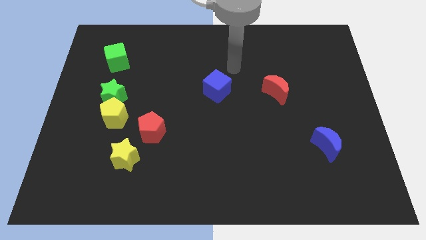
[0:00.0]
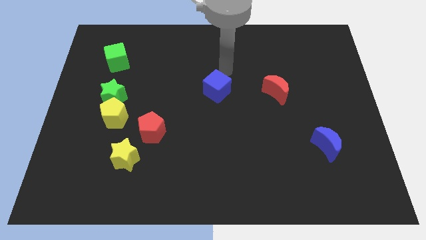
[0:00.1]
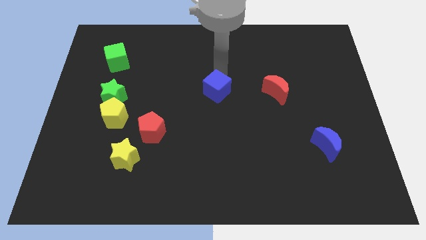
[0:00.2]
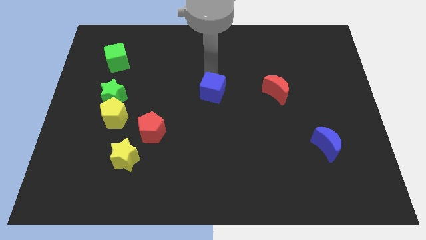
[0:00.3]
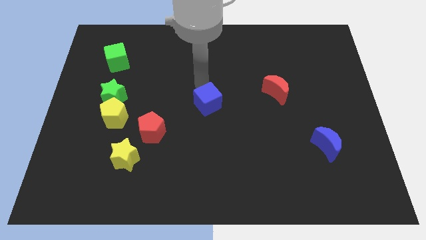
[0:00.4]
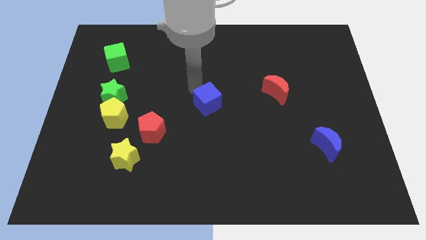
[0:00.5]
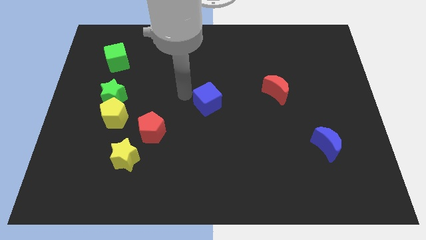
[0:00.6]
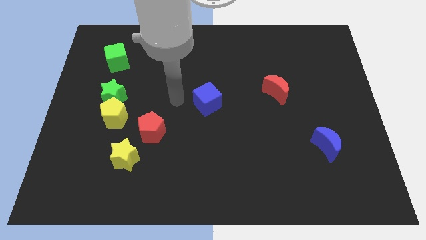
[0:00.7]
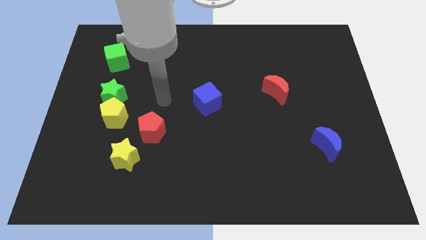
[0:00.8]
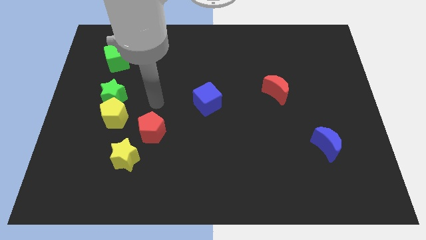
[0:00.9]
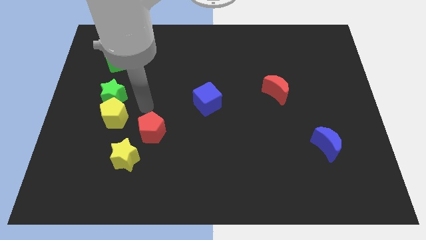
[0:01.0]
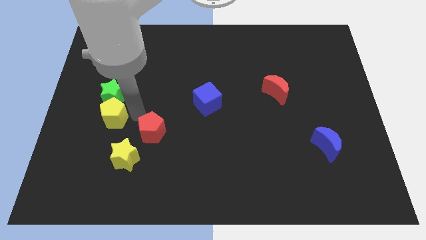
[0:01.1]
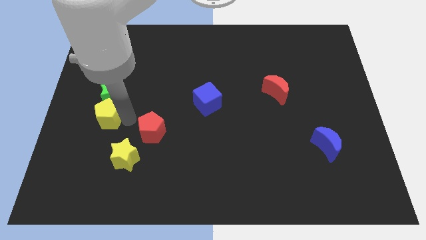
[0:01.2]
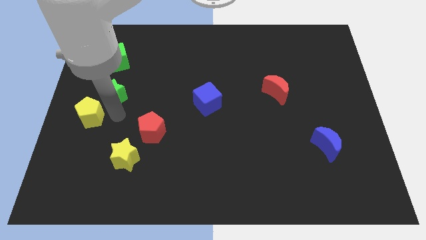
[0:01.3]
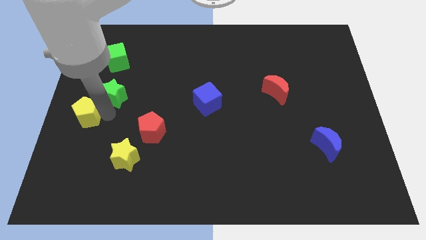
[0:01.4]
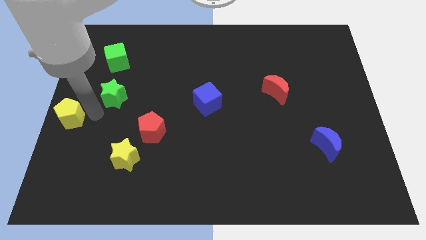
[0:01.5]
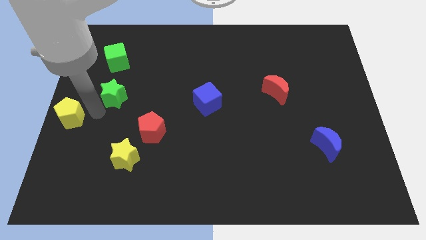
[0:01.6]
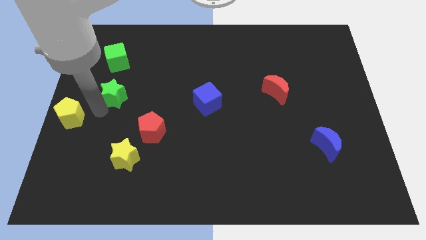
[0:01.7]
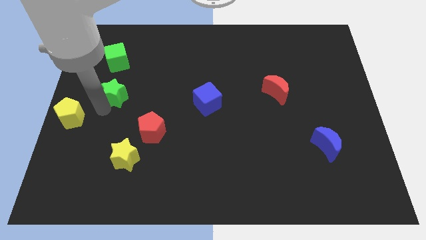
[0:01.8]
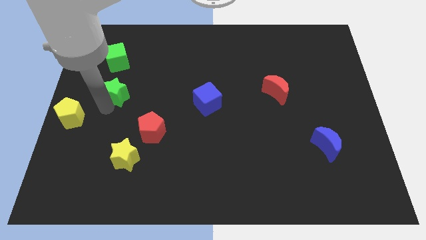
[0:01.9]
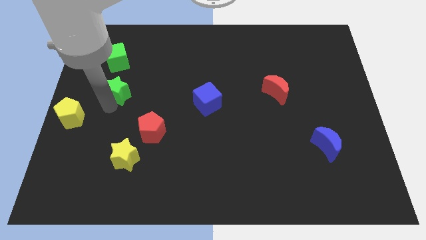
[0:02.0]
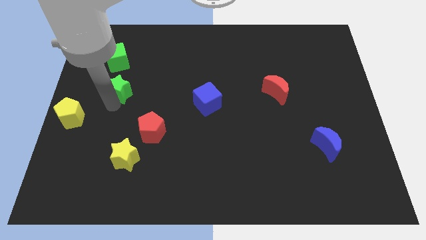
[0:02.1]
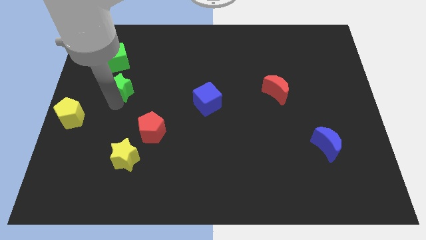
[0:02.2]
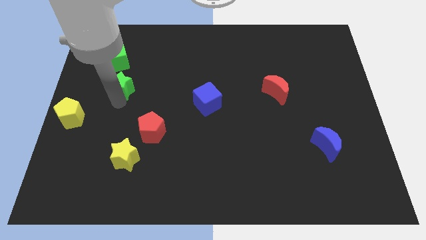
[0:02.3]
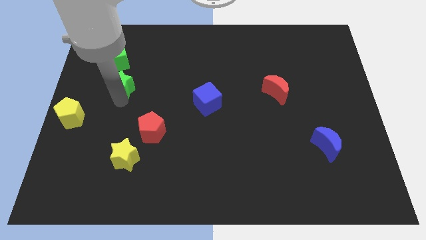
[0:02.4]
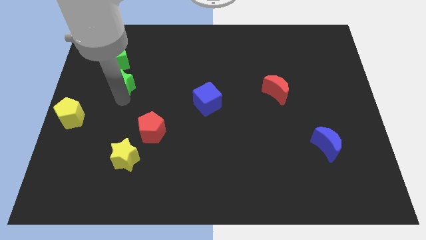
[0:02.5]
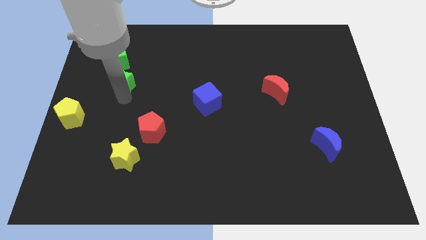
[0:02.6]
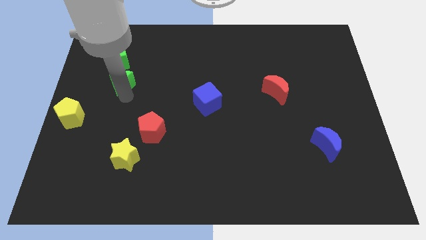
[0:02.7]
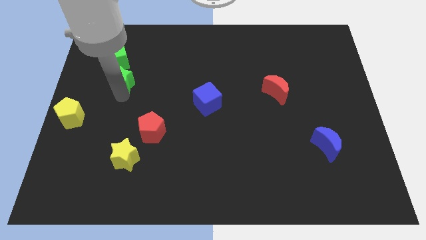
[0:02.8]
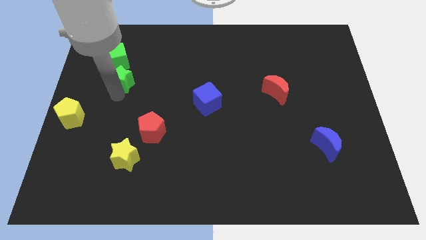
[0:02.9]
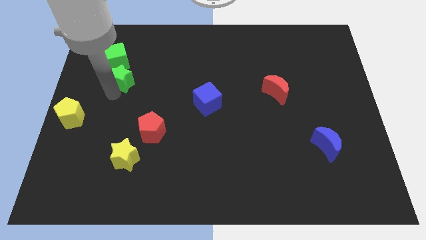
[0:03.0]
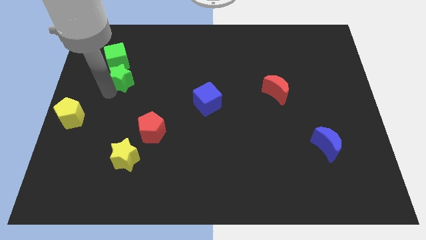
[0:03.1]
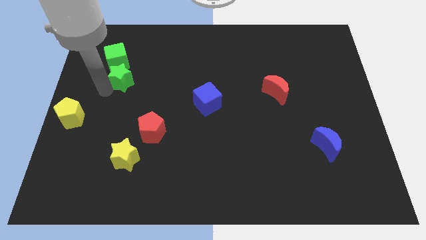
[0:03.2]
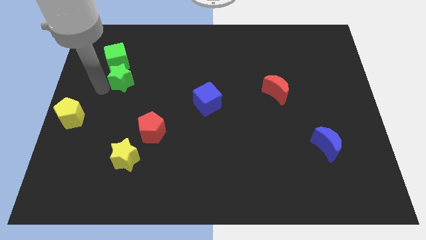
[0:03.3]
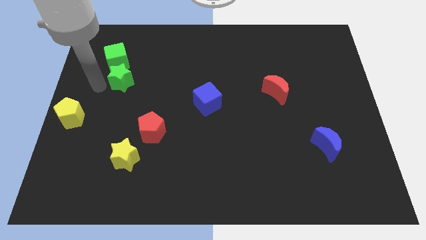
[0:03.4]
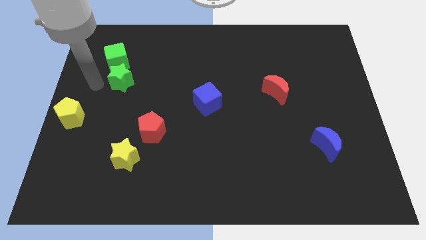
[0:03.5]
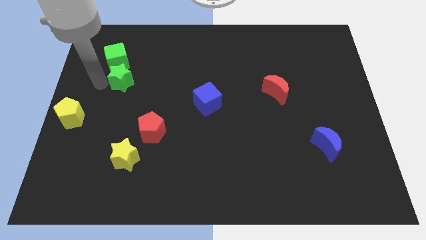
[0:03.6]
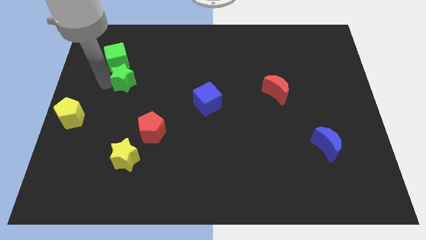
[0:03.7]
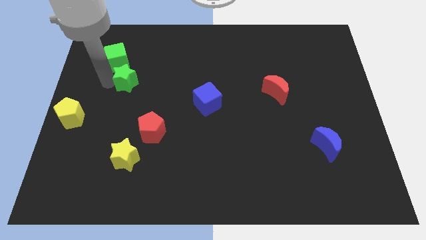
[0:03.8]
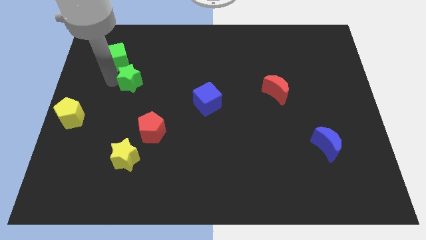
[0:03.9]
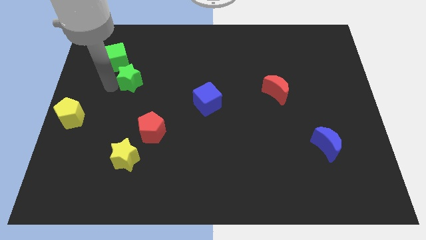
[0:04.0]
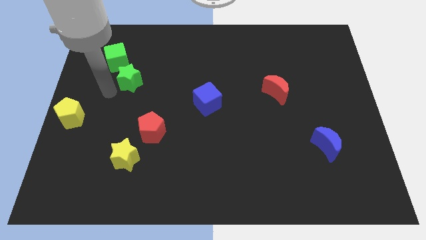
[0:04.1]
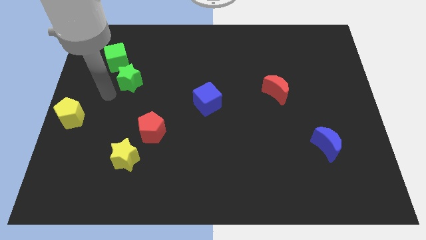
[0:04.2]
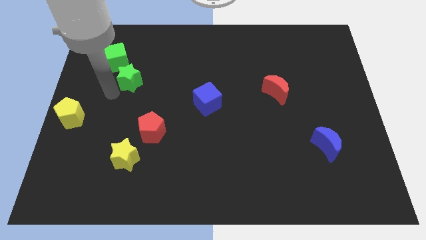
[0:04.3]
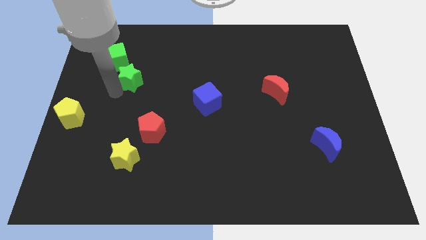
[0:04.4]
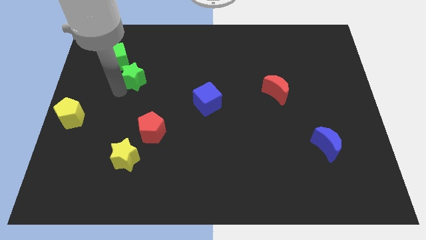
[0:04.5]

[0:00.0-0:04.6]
slightly move the green star diagonally up and to the right

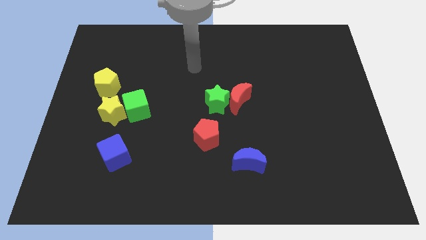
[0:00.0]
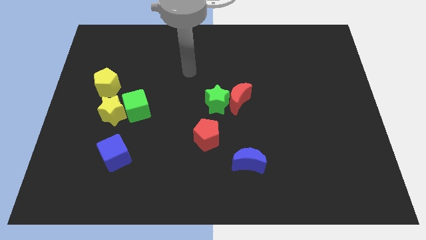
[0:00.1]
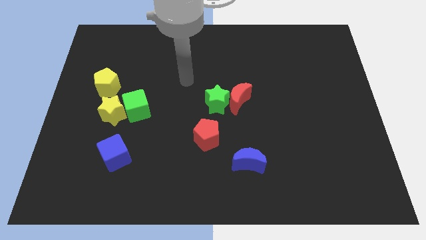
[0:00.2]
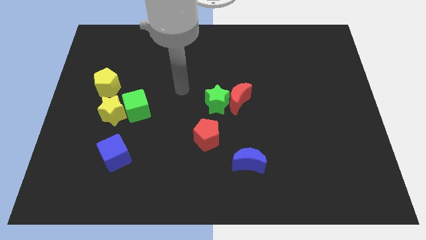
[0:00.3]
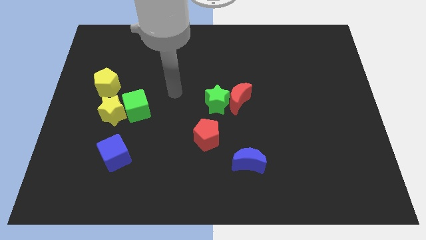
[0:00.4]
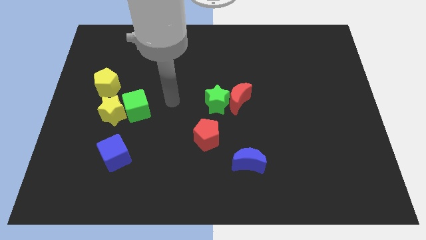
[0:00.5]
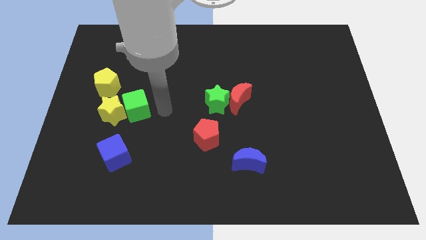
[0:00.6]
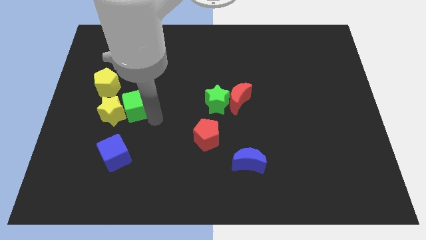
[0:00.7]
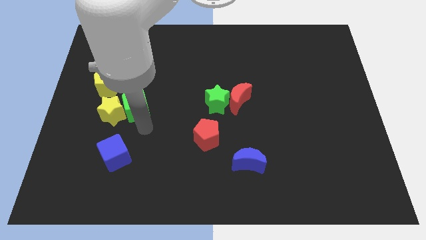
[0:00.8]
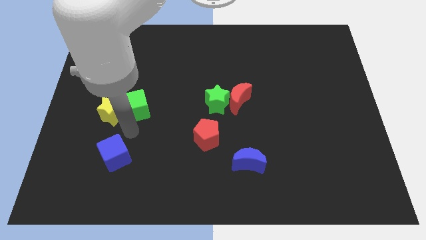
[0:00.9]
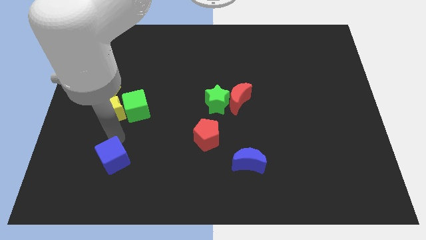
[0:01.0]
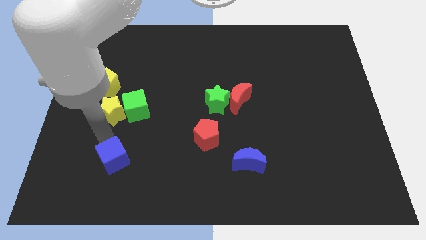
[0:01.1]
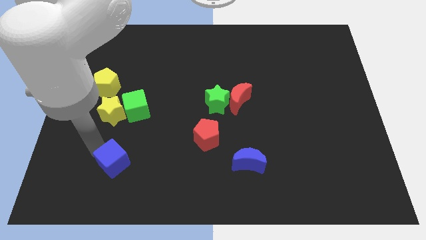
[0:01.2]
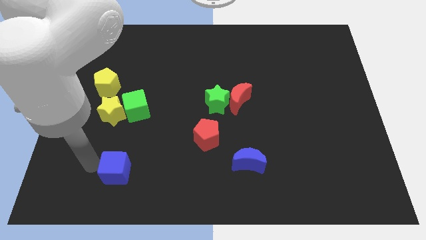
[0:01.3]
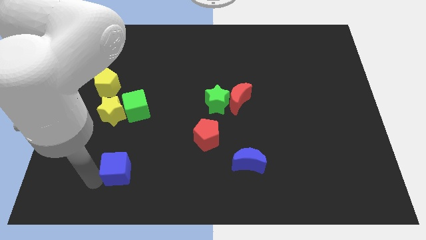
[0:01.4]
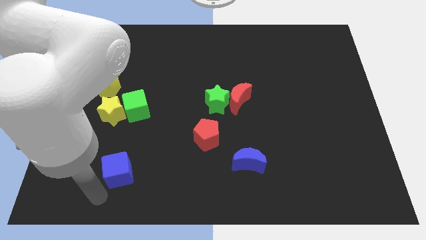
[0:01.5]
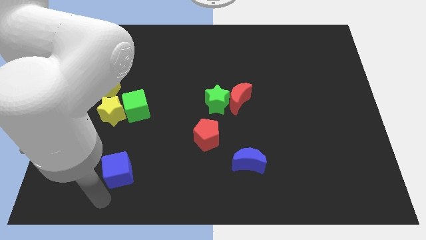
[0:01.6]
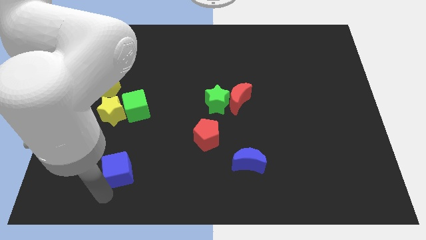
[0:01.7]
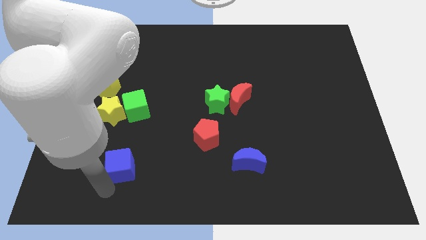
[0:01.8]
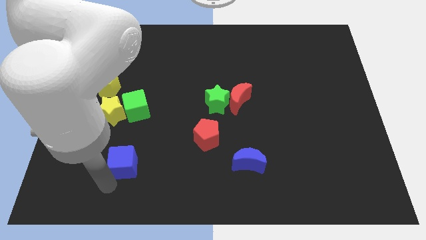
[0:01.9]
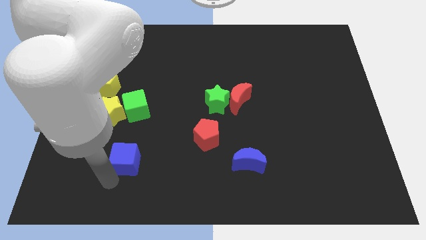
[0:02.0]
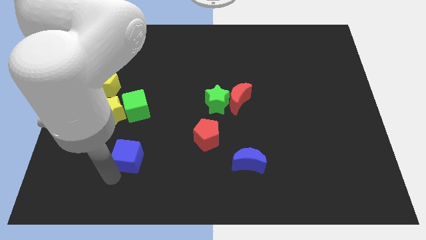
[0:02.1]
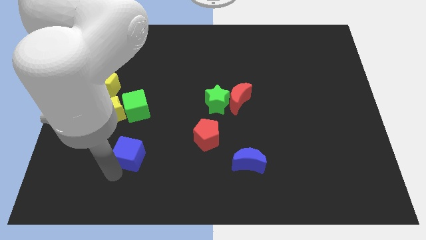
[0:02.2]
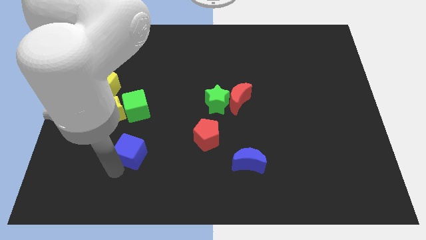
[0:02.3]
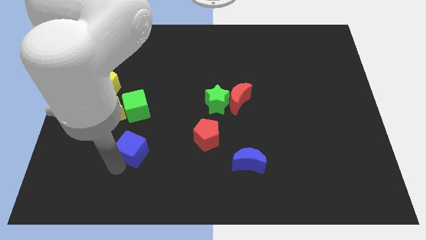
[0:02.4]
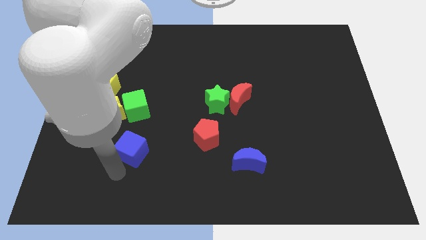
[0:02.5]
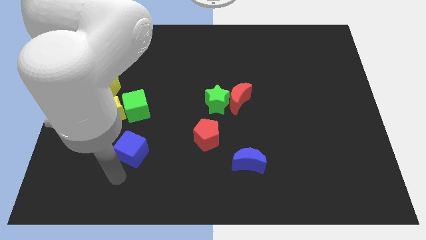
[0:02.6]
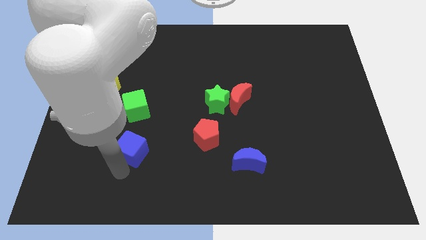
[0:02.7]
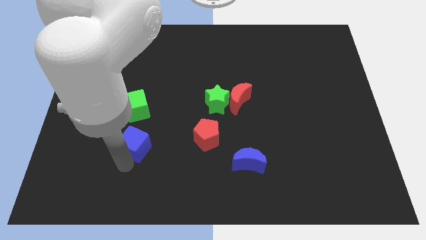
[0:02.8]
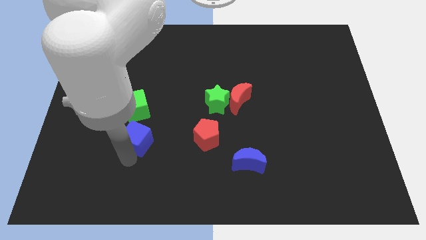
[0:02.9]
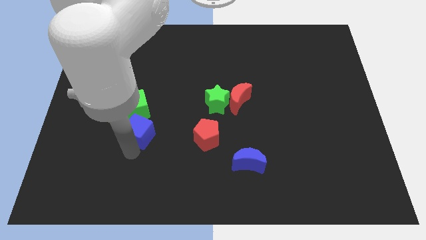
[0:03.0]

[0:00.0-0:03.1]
move the blue cube a bit diagonally upwards and right

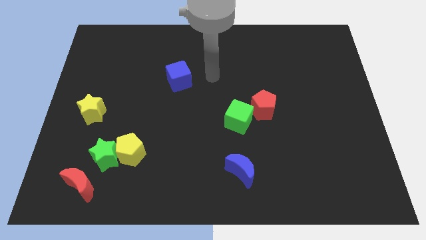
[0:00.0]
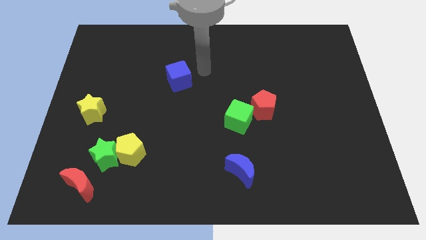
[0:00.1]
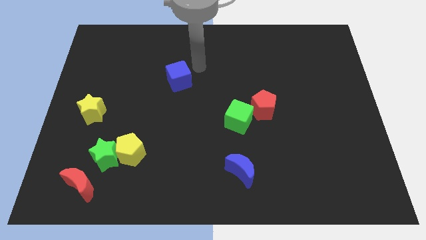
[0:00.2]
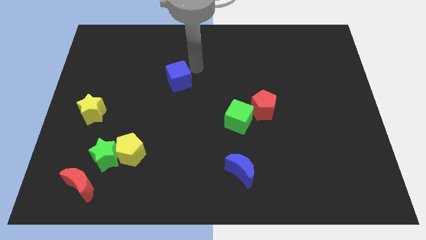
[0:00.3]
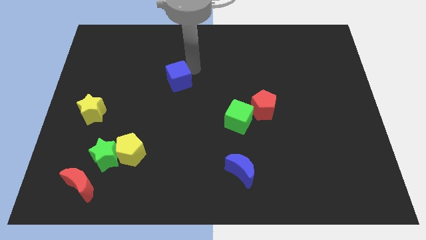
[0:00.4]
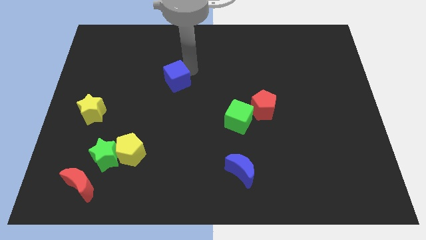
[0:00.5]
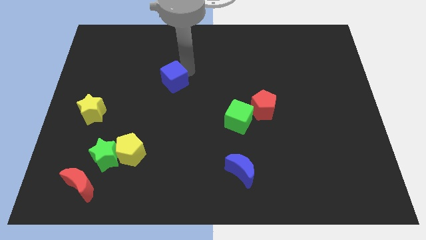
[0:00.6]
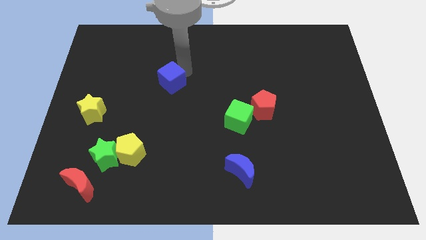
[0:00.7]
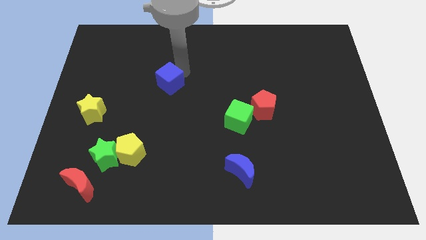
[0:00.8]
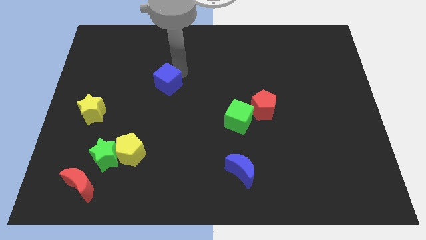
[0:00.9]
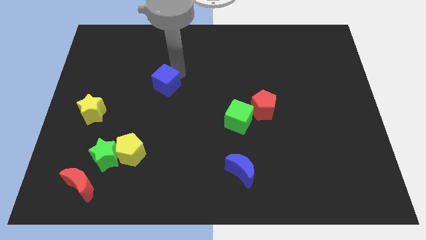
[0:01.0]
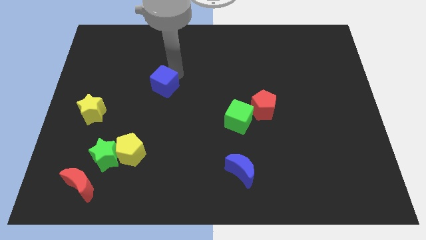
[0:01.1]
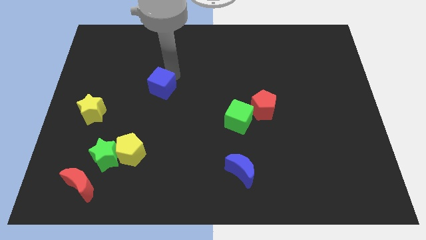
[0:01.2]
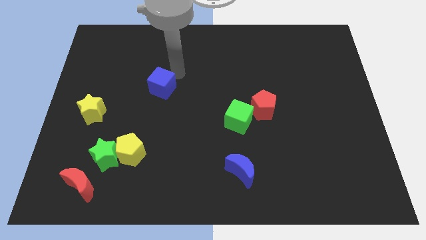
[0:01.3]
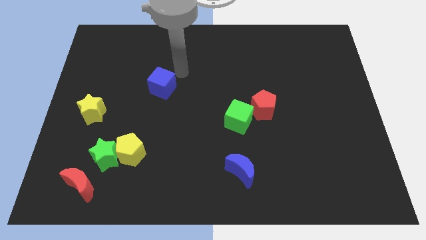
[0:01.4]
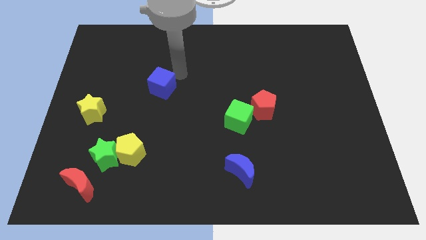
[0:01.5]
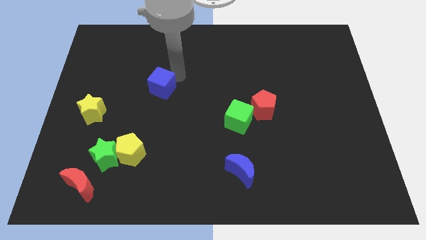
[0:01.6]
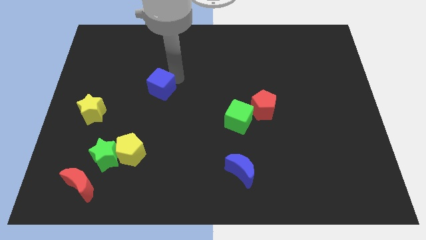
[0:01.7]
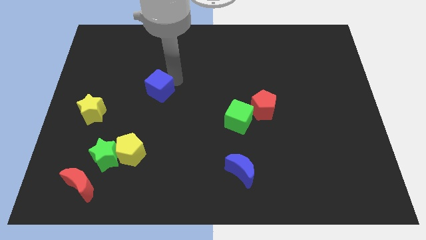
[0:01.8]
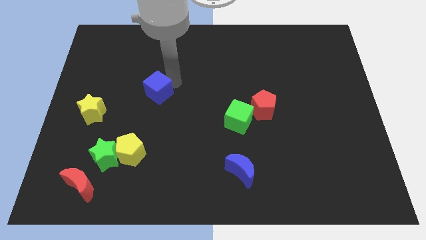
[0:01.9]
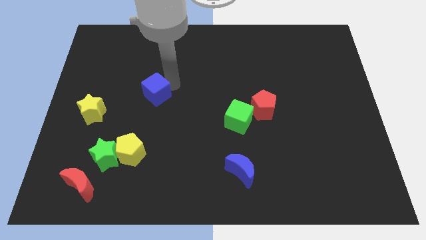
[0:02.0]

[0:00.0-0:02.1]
push the blue cube a bit down and left diagonally
